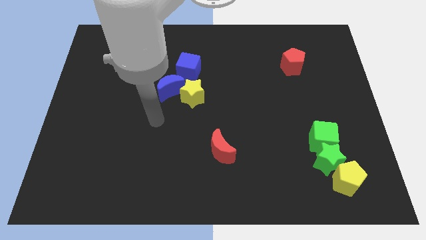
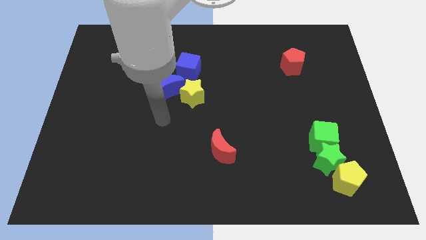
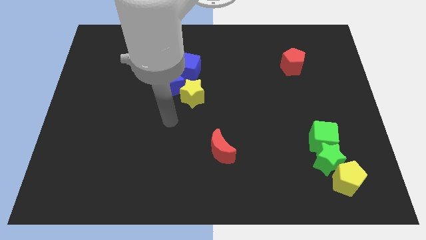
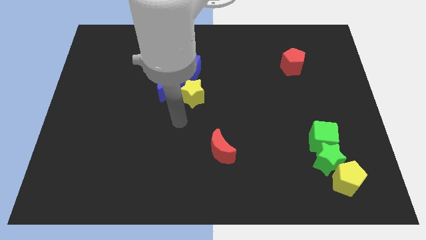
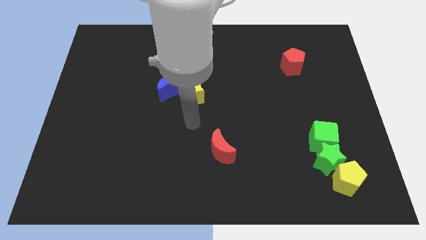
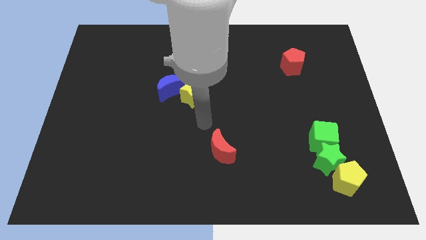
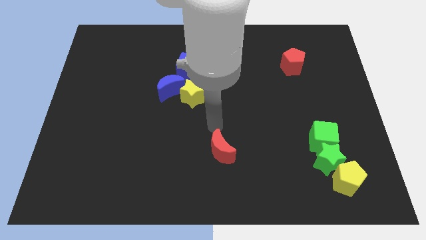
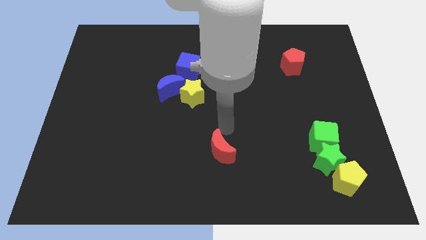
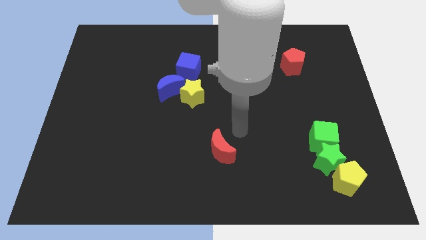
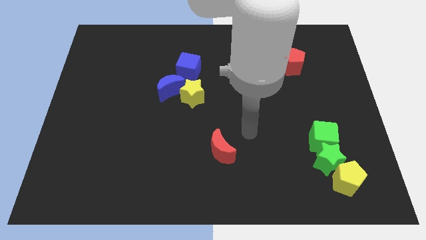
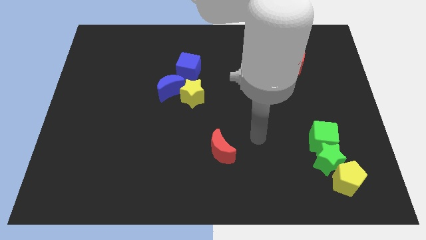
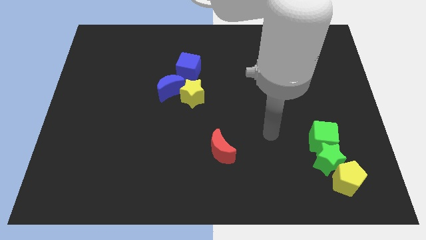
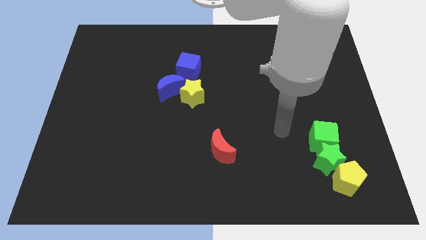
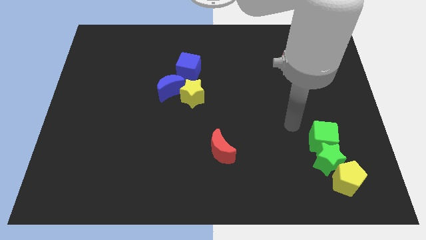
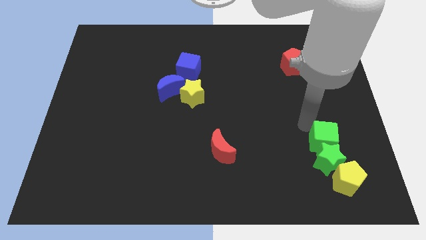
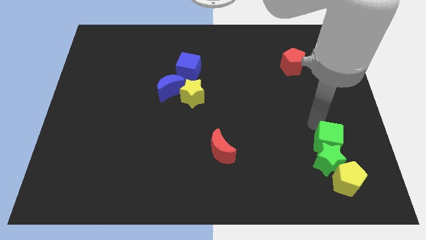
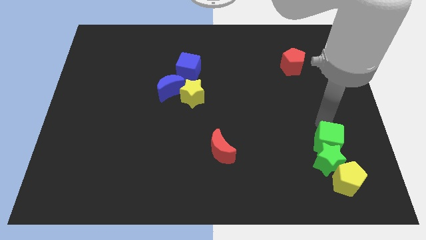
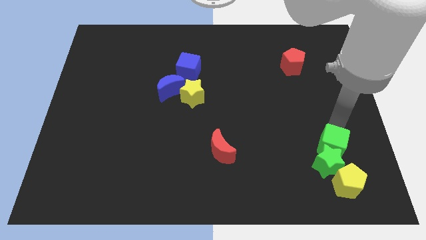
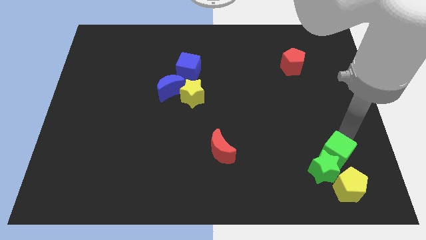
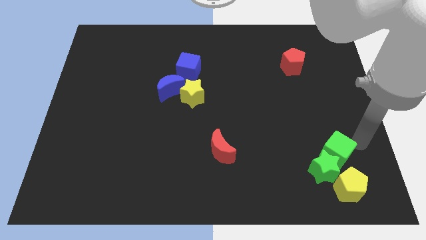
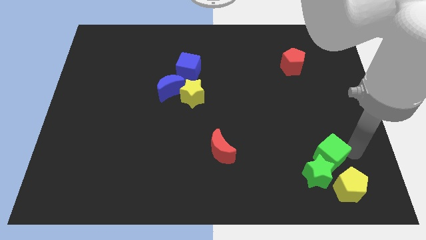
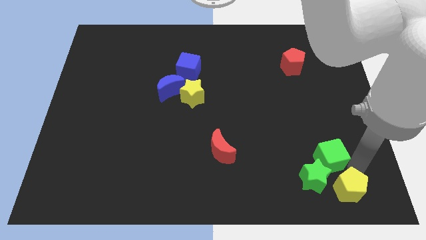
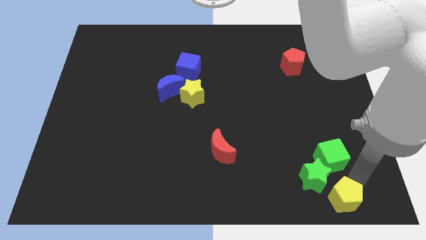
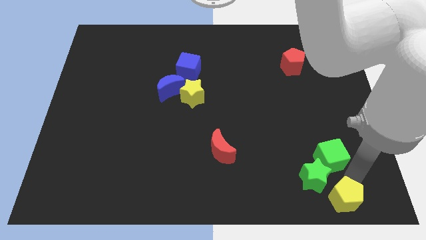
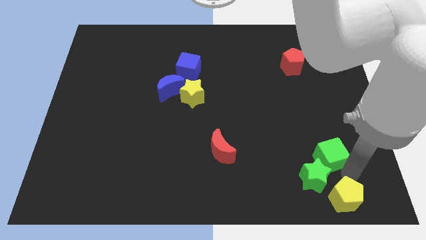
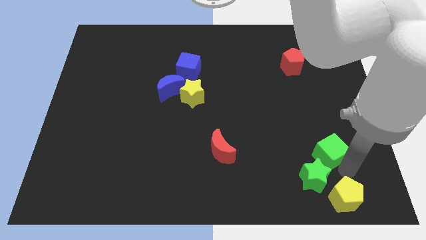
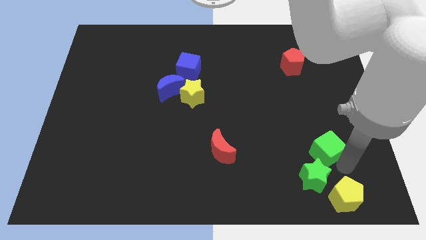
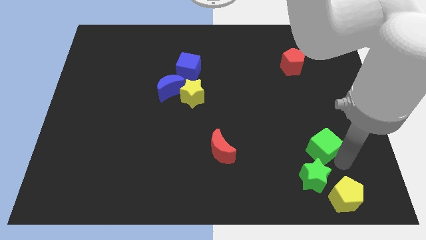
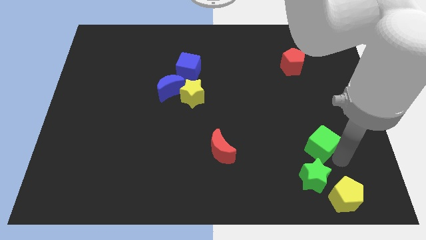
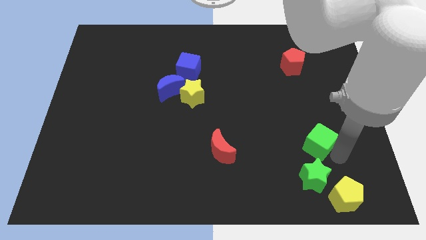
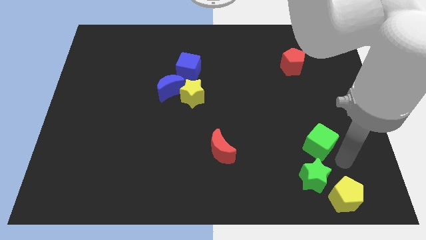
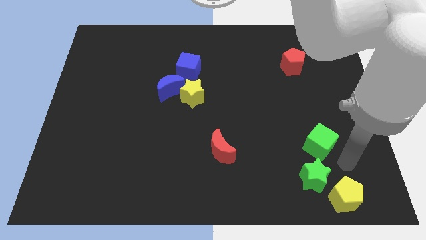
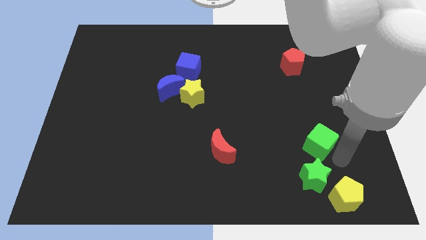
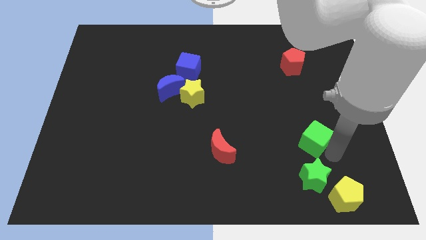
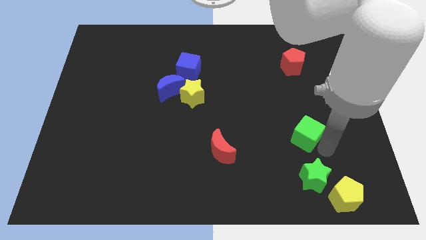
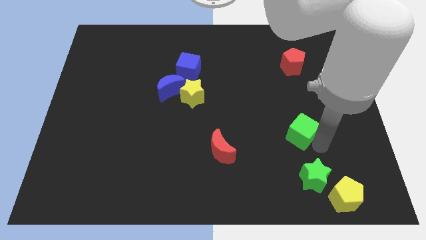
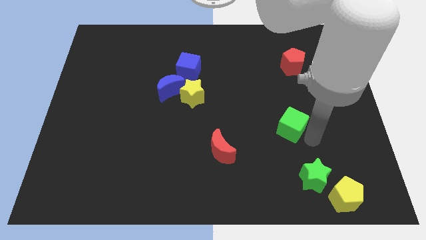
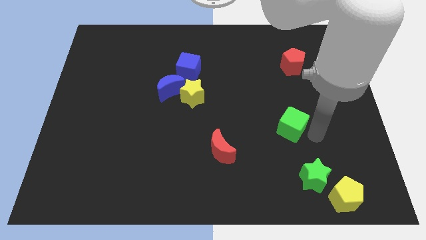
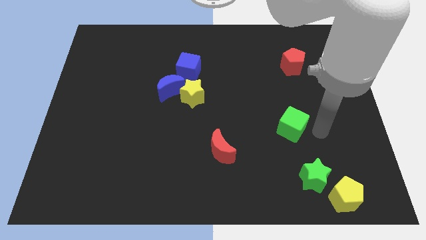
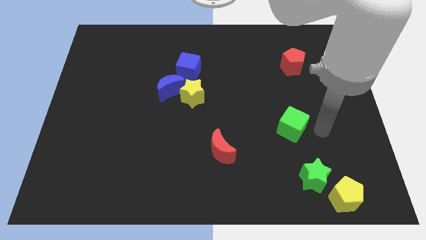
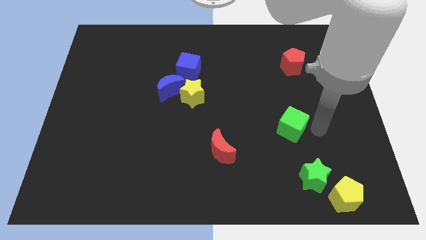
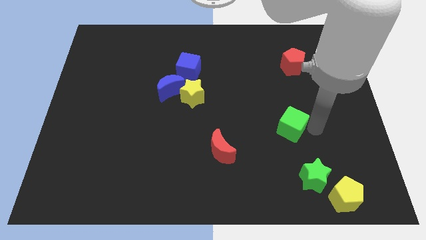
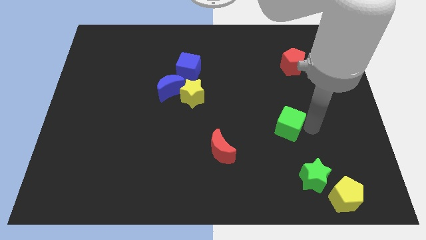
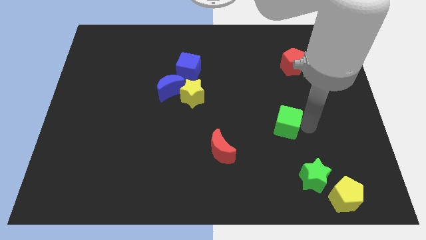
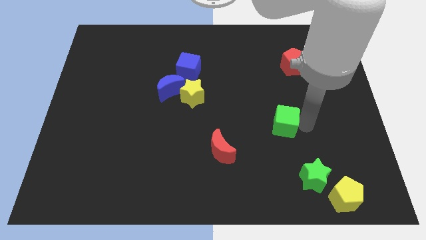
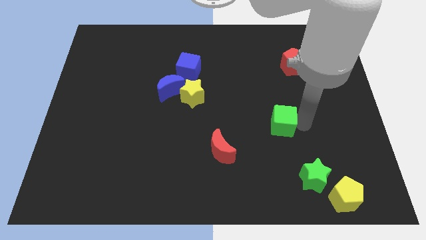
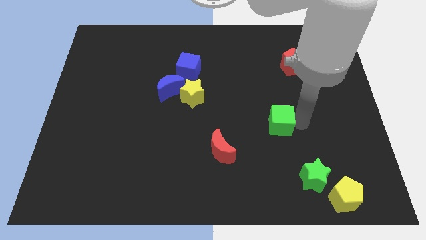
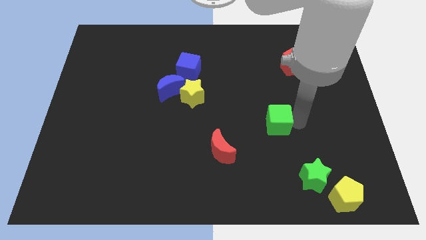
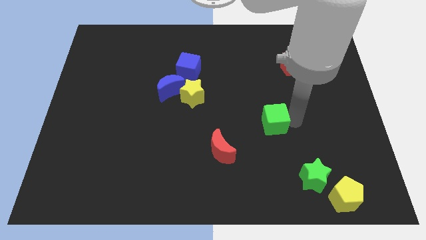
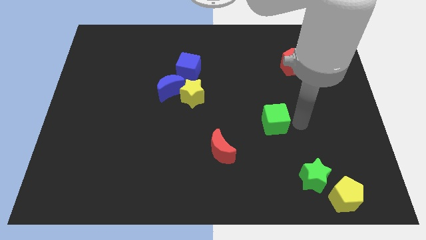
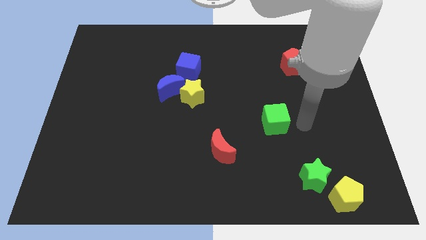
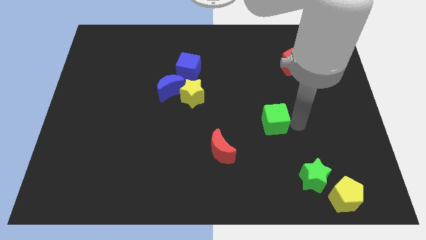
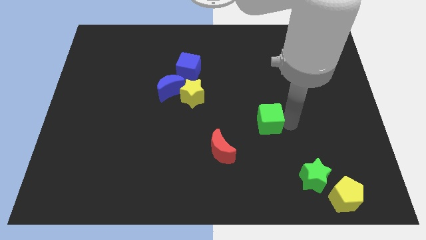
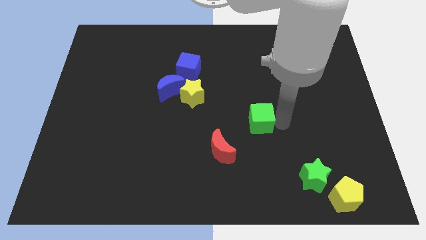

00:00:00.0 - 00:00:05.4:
push the green cube to the center

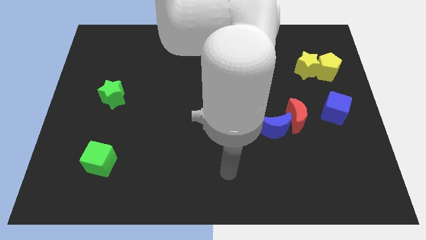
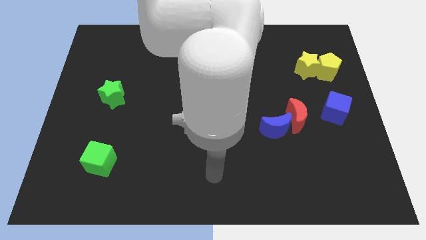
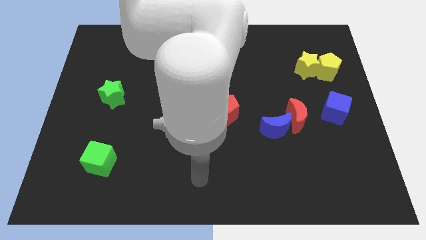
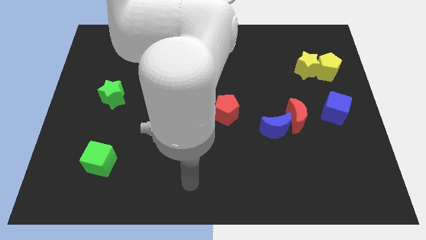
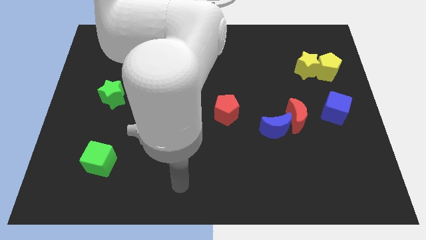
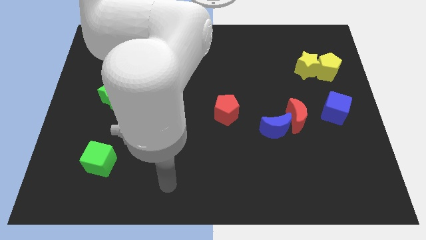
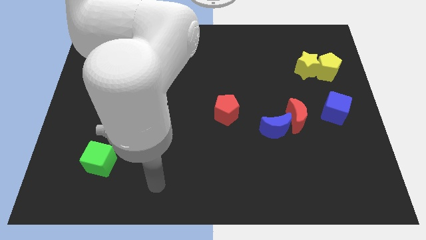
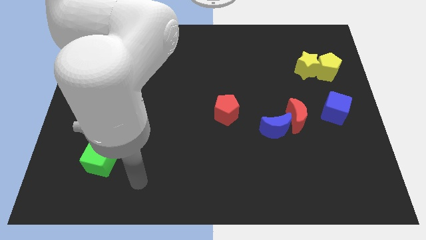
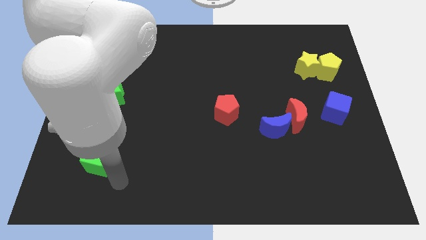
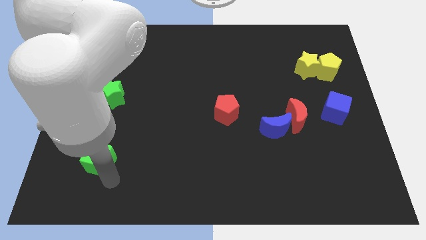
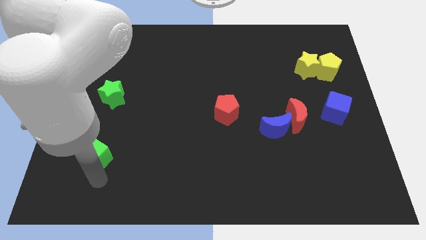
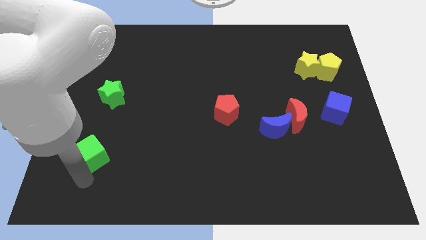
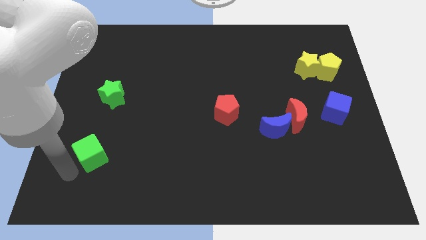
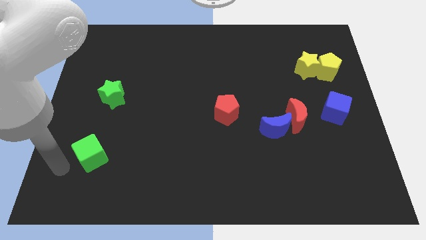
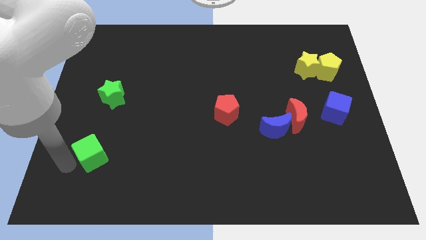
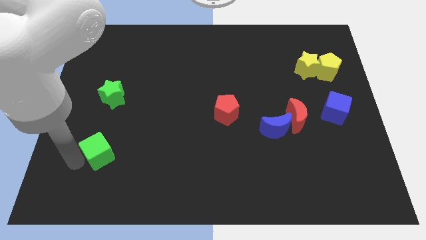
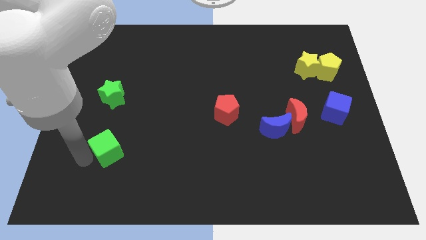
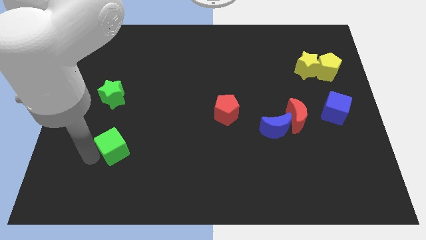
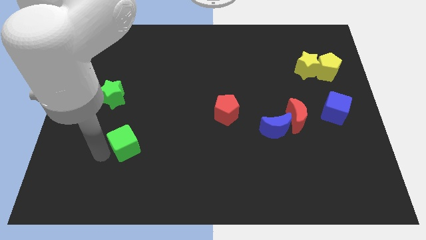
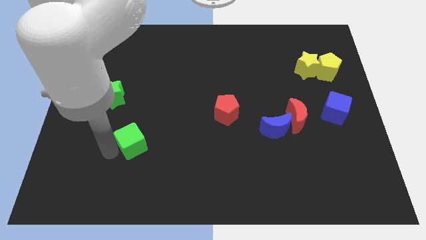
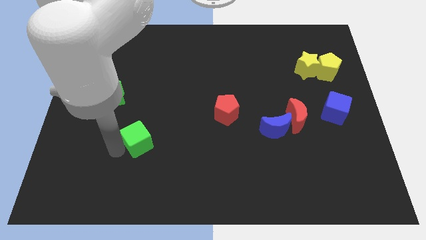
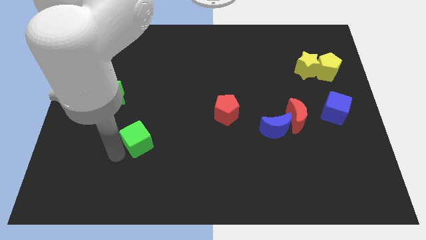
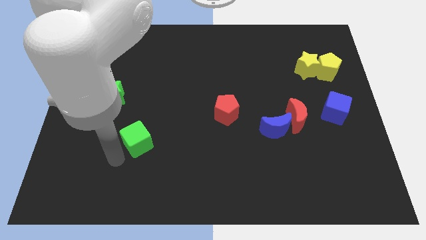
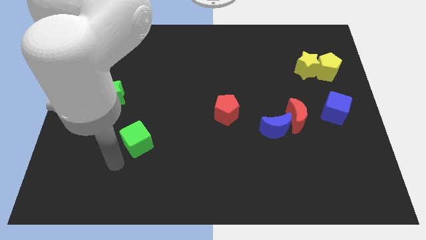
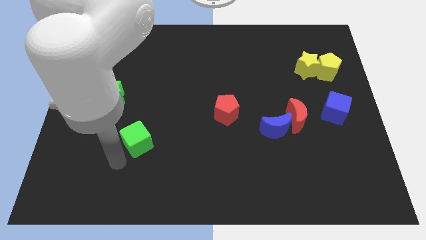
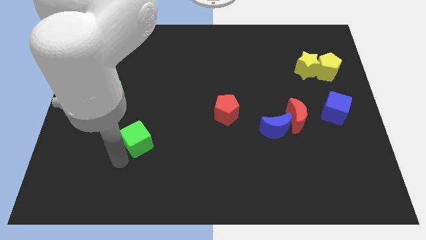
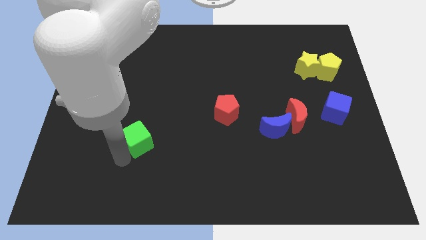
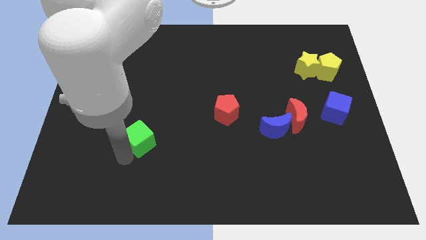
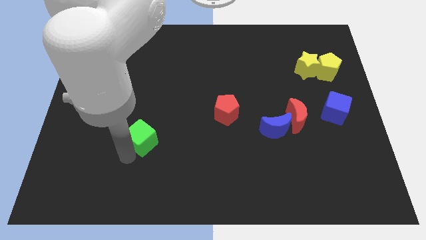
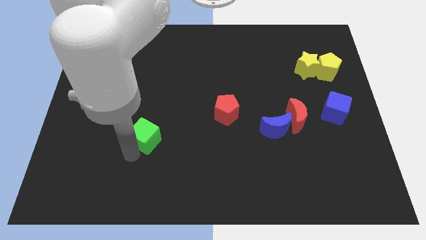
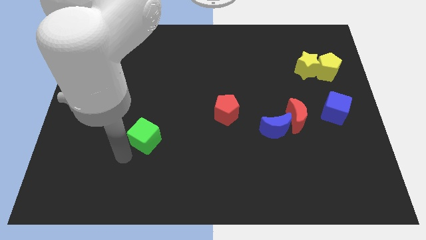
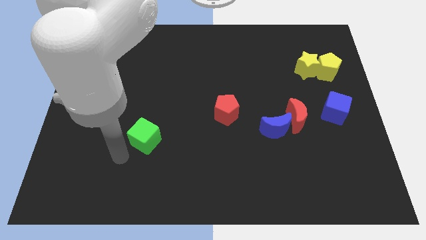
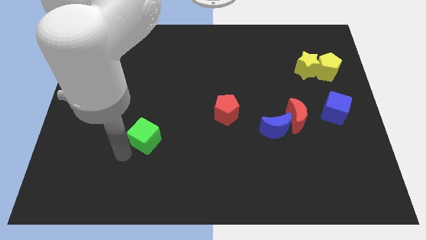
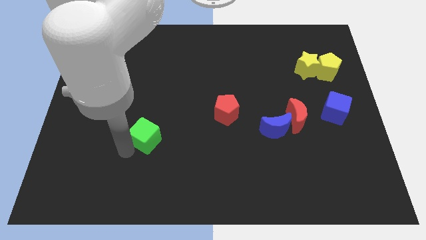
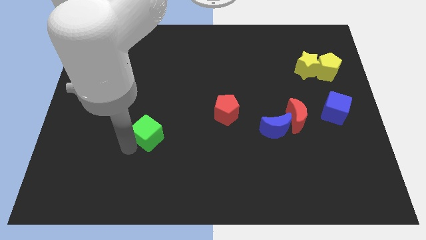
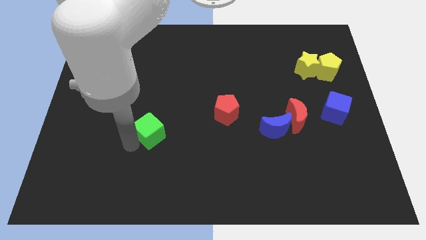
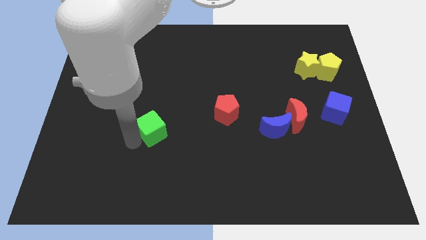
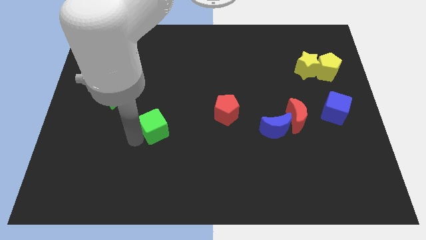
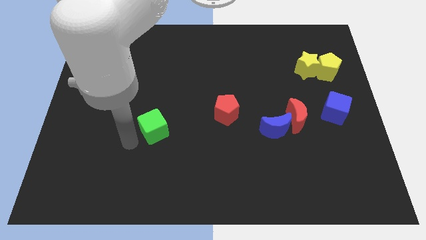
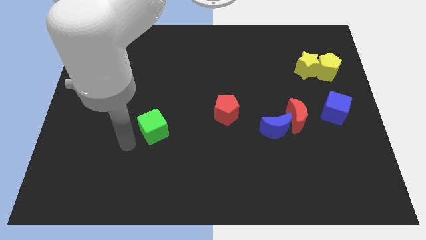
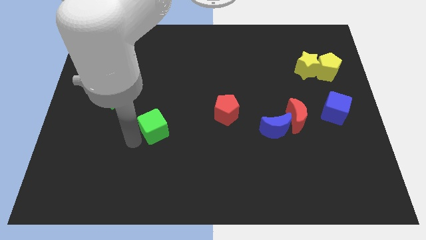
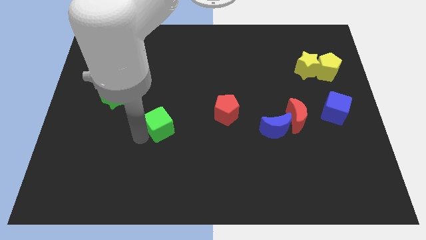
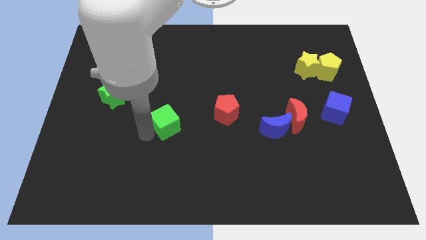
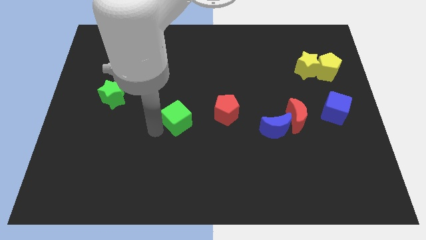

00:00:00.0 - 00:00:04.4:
move the green cube to the center
